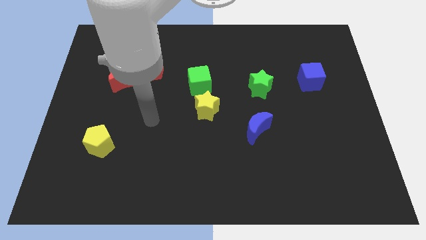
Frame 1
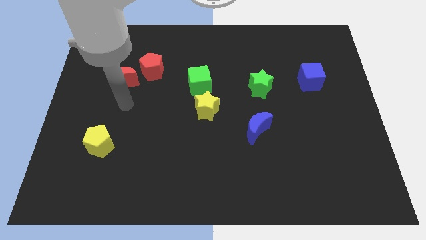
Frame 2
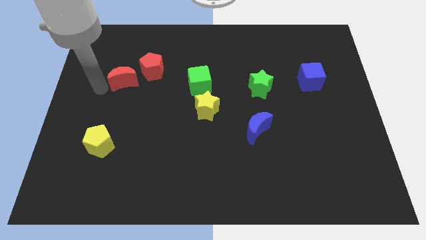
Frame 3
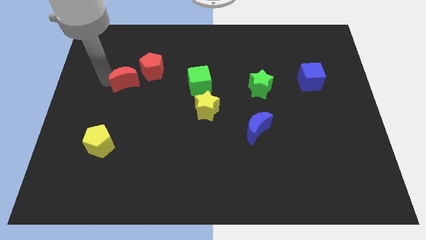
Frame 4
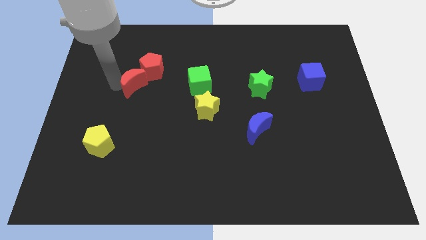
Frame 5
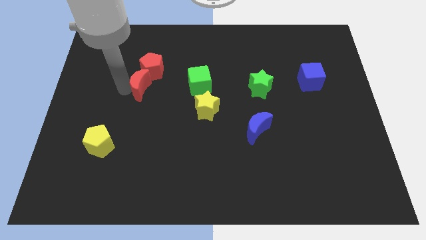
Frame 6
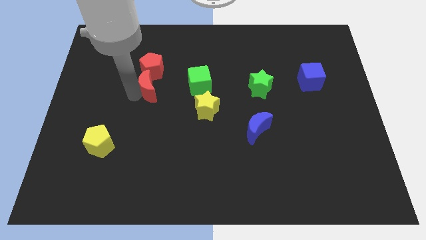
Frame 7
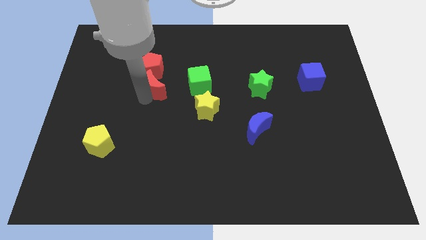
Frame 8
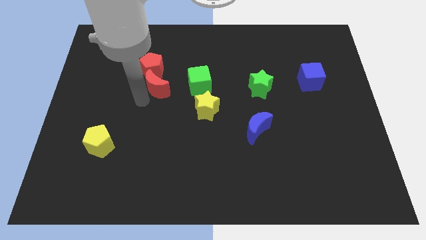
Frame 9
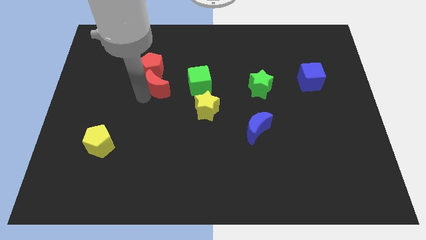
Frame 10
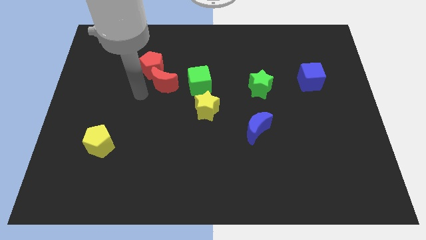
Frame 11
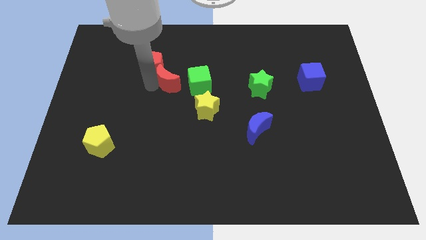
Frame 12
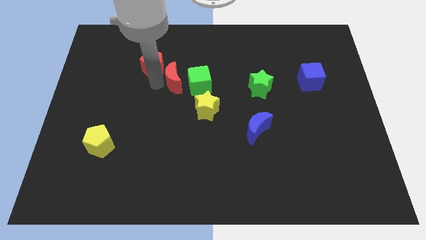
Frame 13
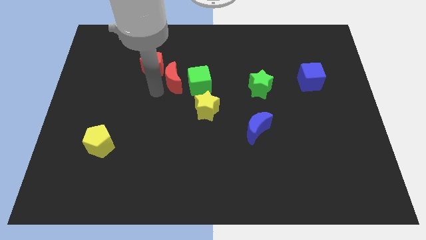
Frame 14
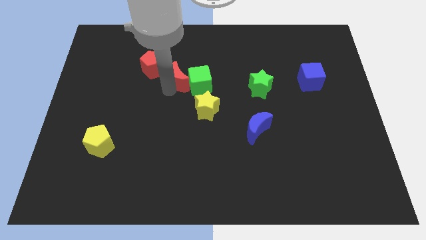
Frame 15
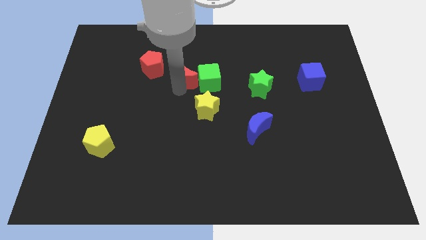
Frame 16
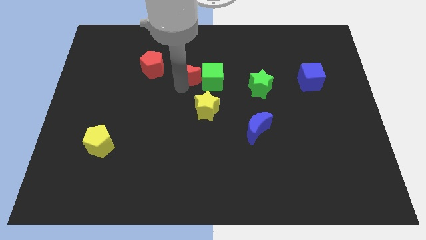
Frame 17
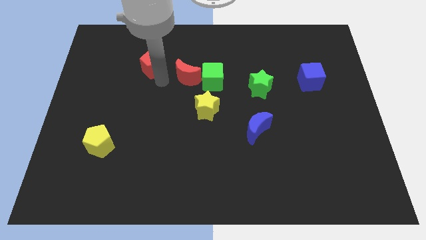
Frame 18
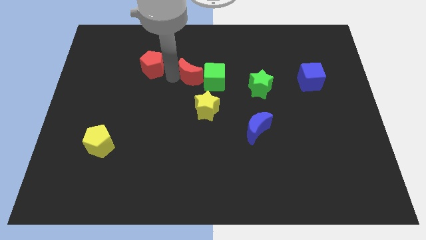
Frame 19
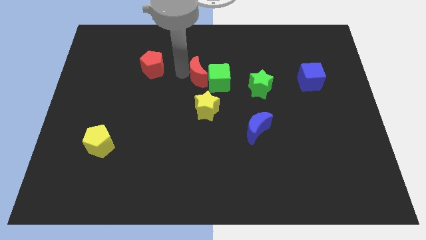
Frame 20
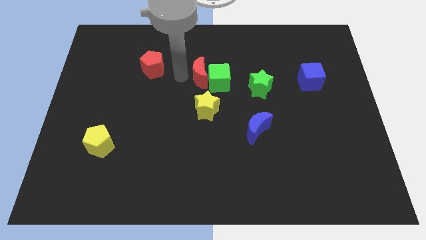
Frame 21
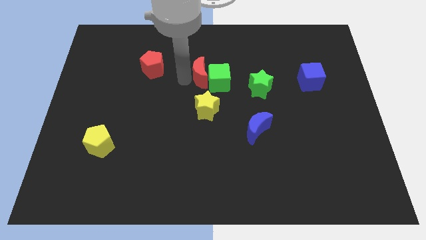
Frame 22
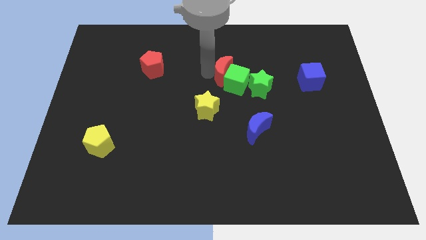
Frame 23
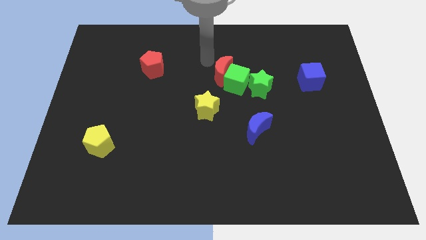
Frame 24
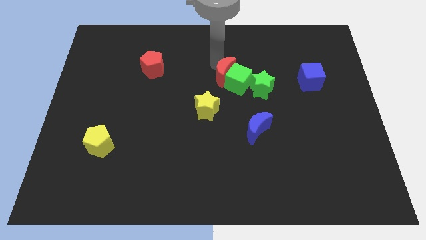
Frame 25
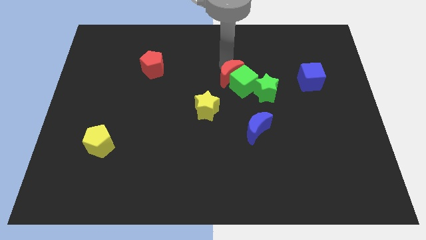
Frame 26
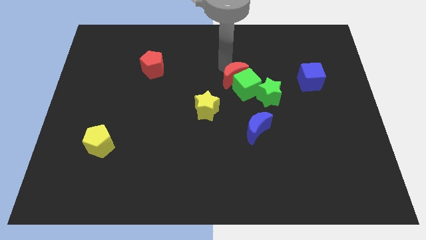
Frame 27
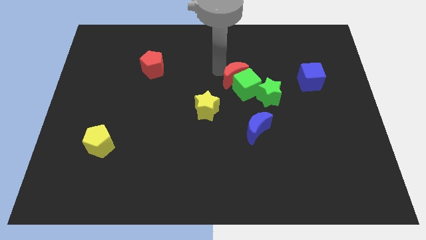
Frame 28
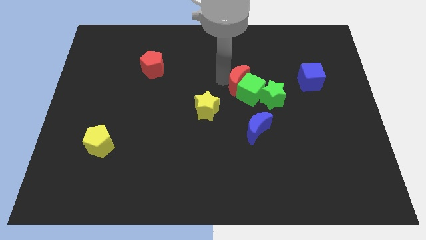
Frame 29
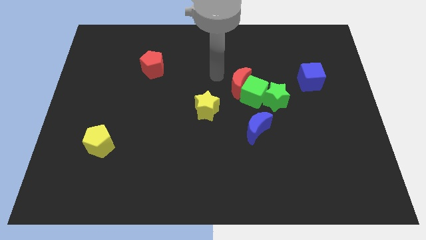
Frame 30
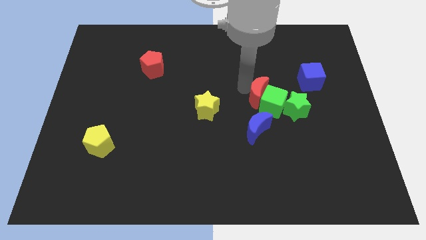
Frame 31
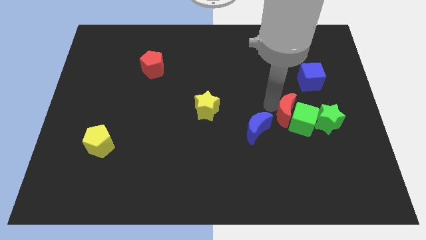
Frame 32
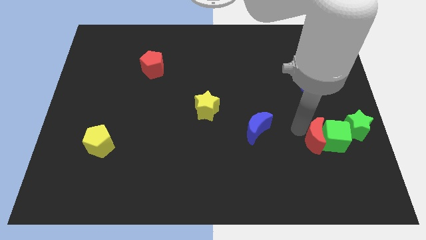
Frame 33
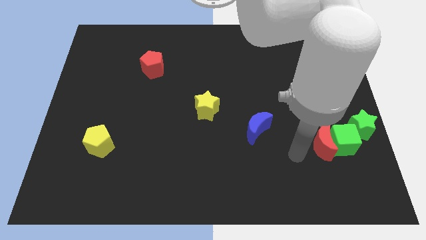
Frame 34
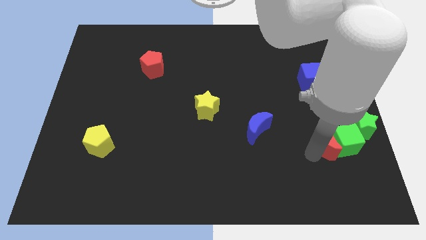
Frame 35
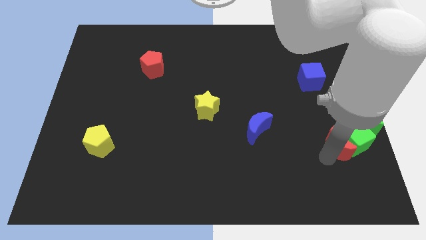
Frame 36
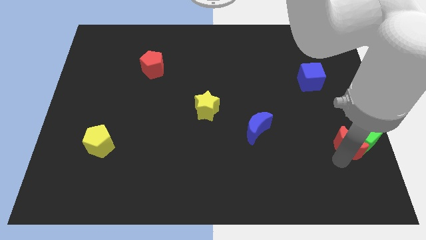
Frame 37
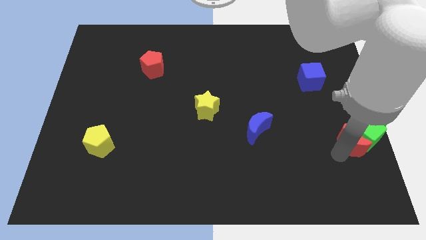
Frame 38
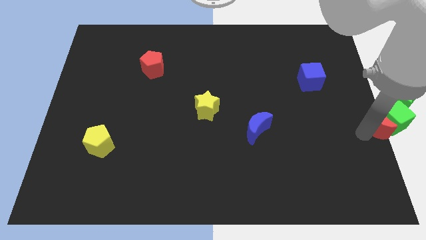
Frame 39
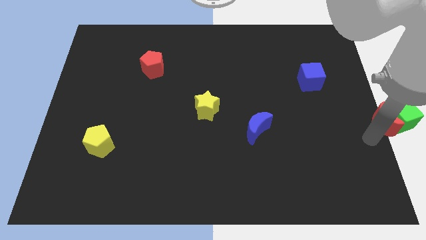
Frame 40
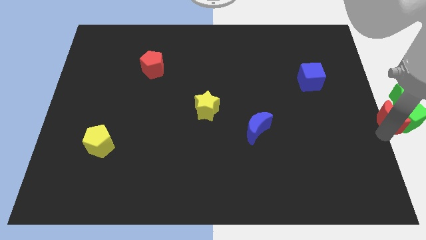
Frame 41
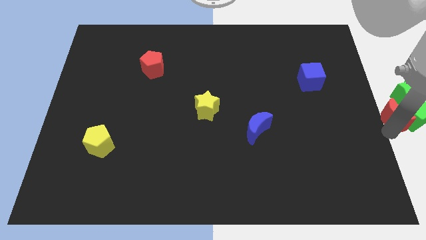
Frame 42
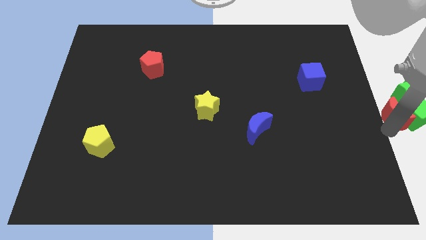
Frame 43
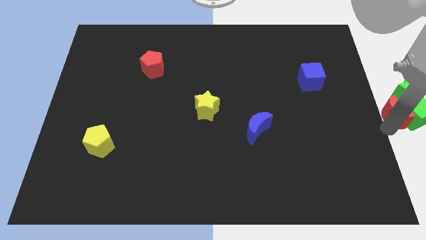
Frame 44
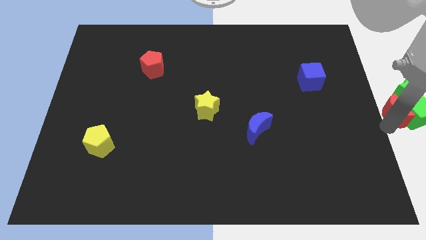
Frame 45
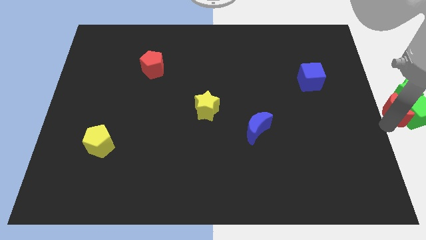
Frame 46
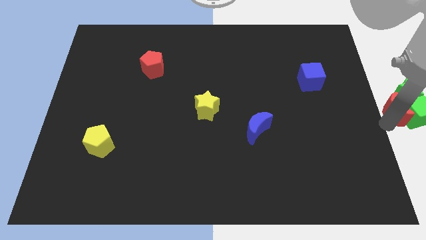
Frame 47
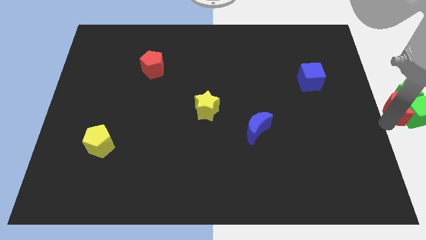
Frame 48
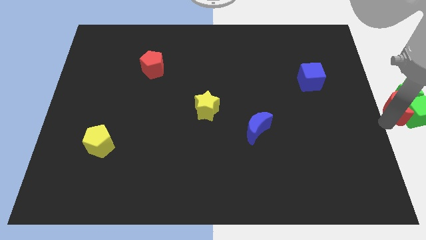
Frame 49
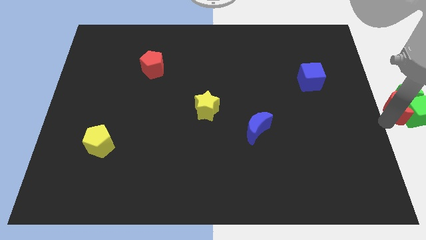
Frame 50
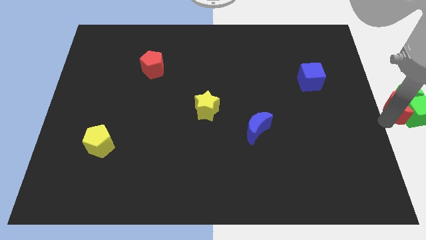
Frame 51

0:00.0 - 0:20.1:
push the red moon to the green star

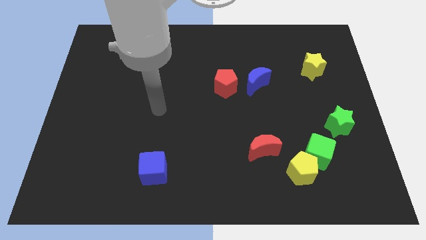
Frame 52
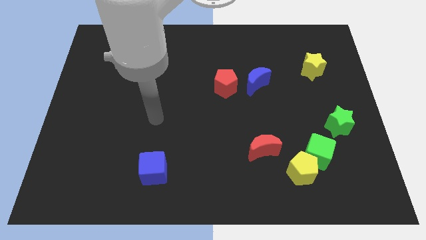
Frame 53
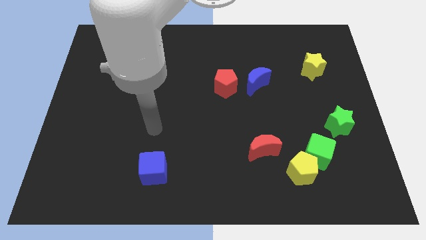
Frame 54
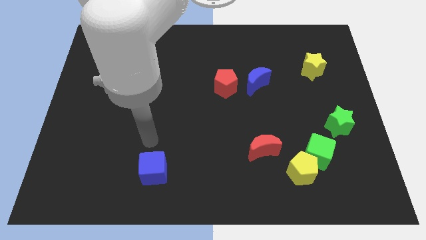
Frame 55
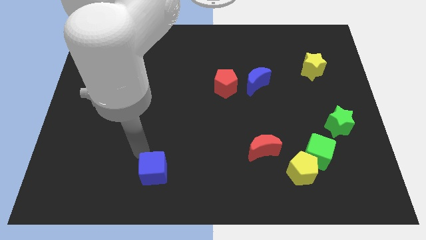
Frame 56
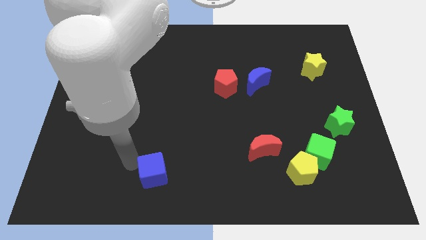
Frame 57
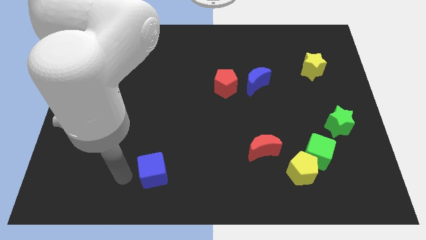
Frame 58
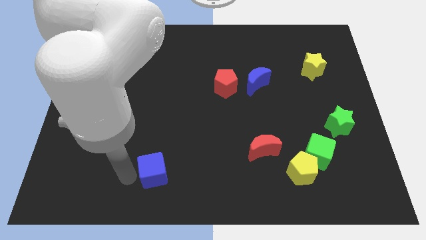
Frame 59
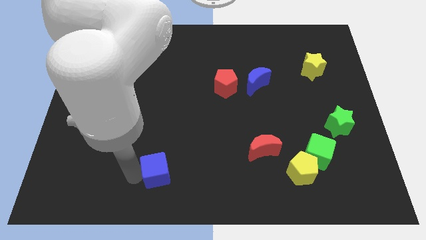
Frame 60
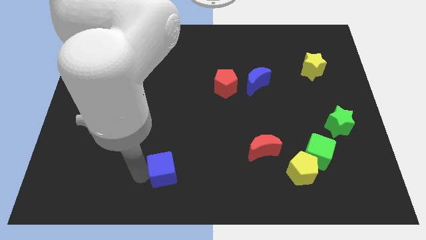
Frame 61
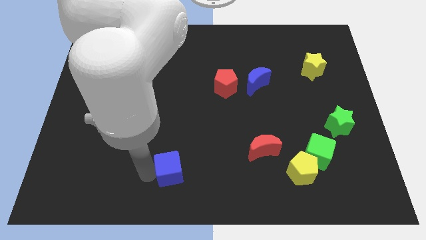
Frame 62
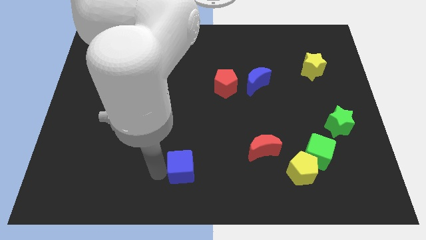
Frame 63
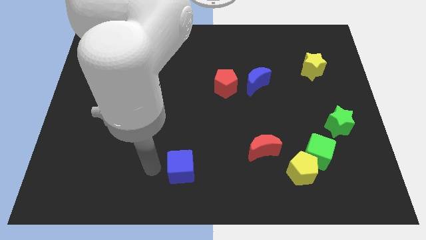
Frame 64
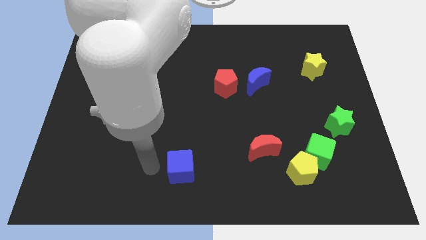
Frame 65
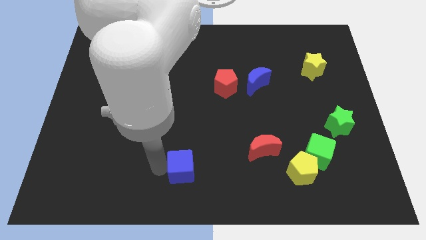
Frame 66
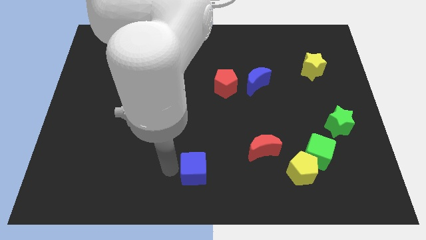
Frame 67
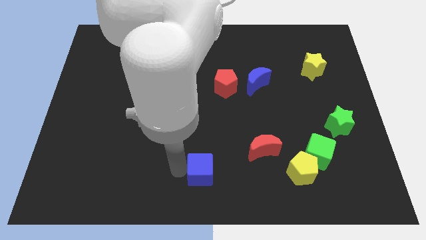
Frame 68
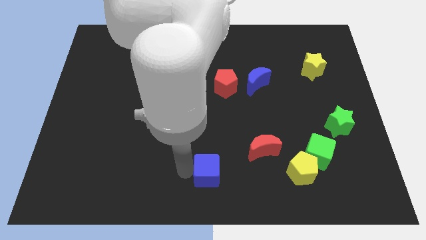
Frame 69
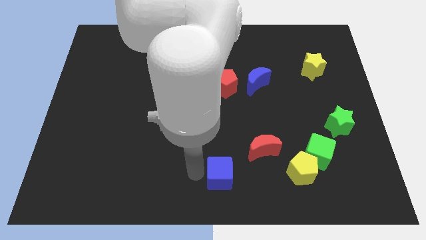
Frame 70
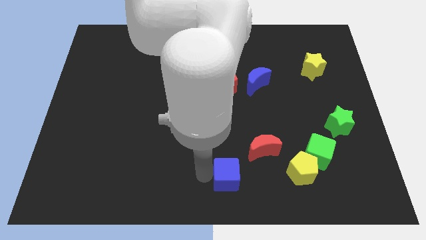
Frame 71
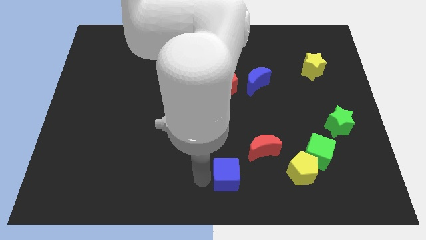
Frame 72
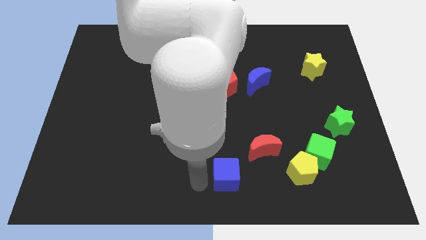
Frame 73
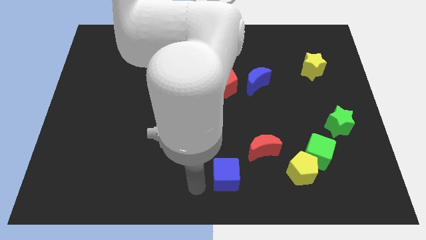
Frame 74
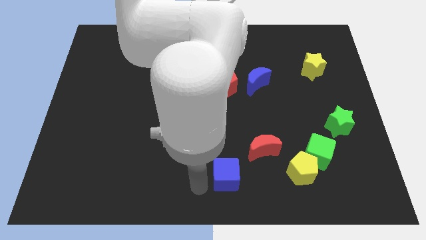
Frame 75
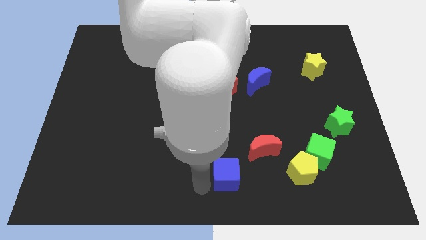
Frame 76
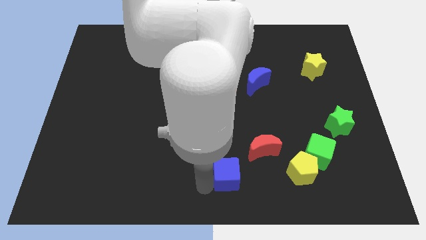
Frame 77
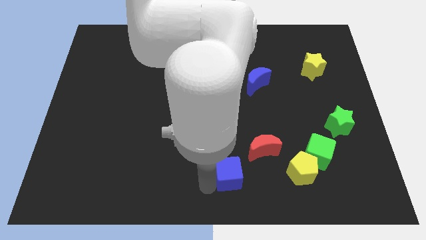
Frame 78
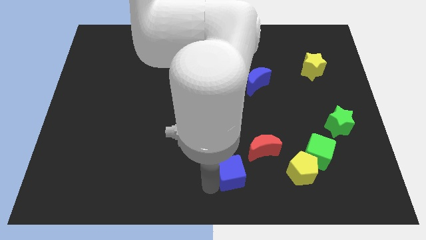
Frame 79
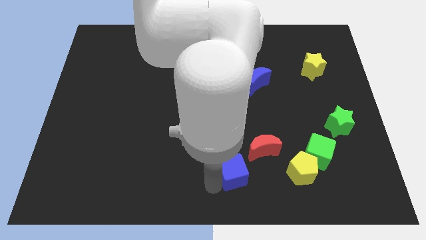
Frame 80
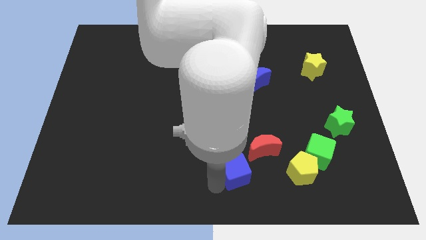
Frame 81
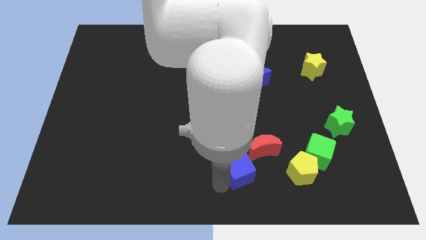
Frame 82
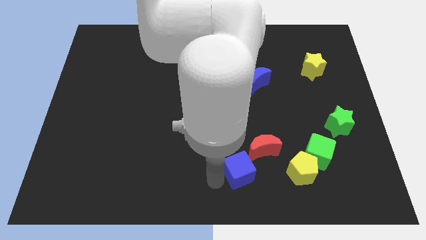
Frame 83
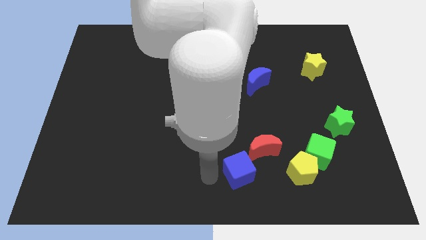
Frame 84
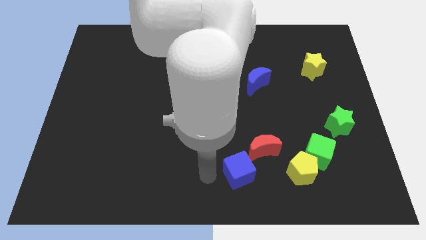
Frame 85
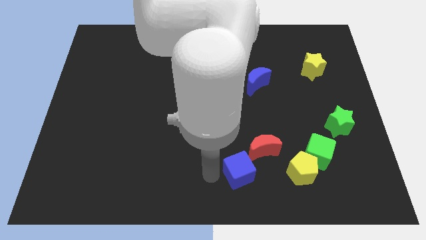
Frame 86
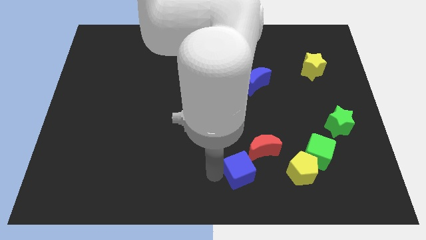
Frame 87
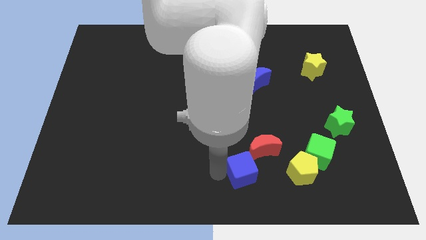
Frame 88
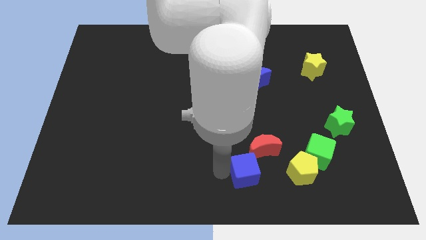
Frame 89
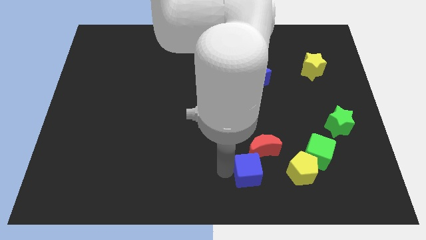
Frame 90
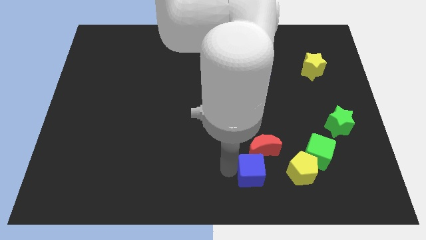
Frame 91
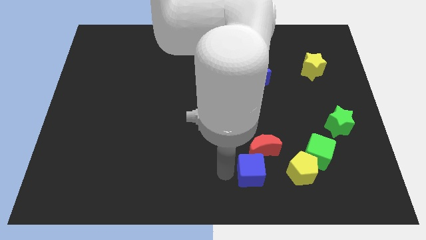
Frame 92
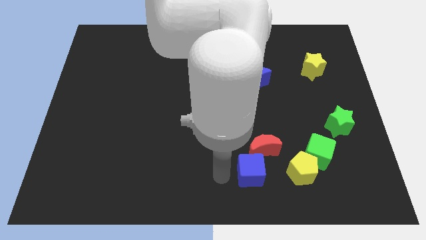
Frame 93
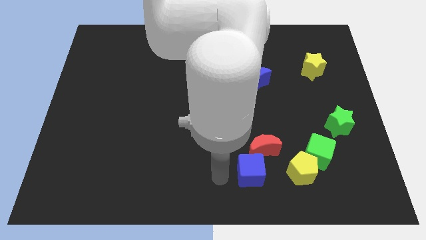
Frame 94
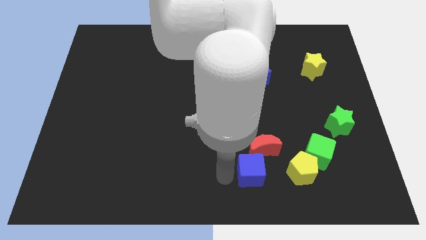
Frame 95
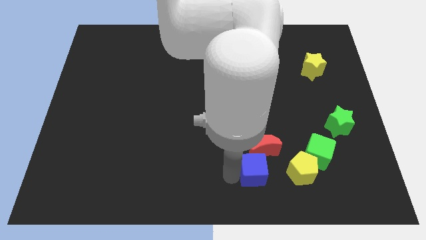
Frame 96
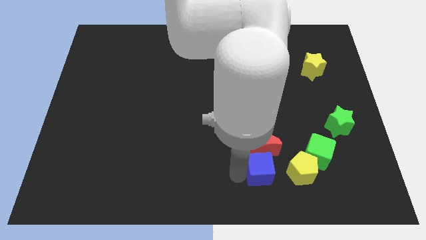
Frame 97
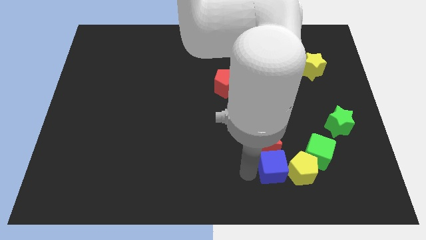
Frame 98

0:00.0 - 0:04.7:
move the blue cube close to the yellow pentagon
